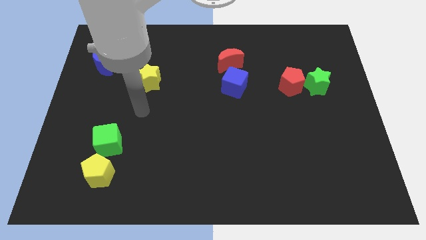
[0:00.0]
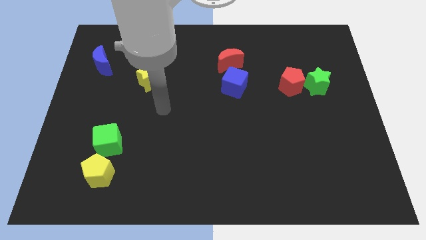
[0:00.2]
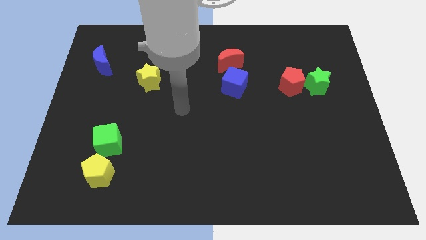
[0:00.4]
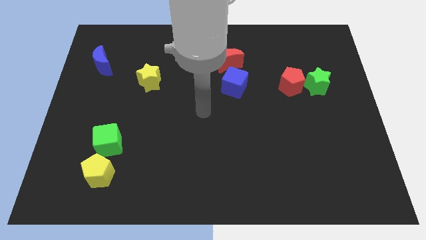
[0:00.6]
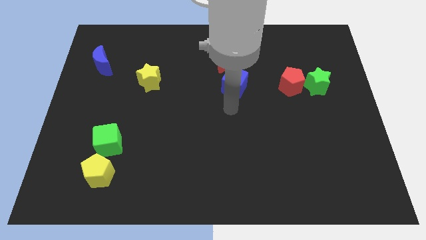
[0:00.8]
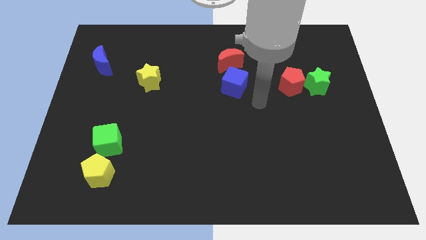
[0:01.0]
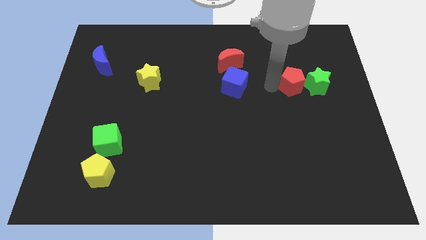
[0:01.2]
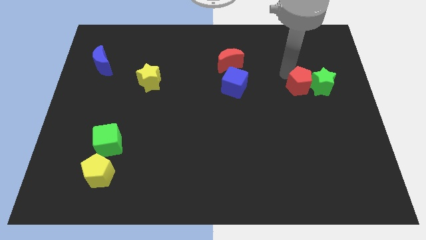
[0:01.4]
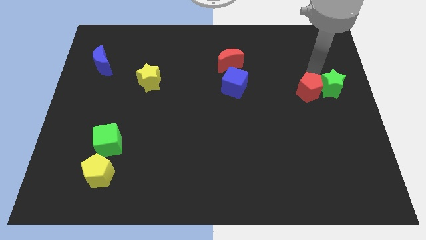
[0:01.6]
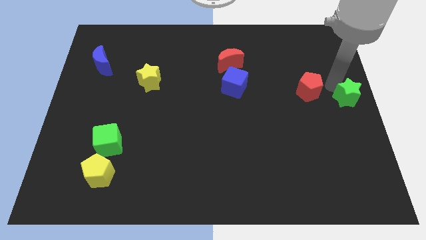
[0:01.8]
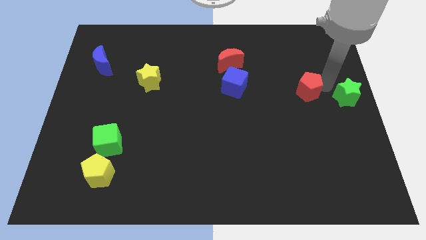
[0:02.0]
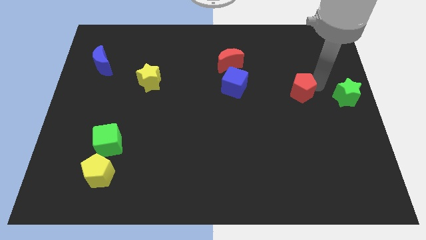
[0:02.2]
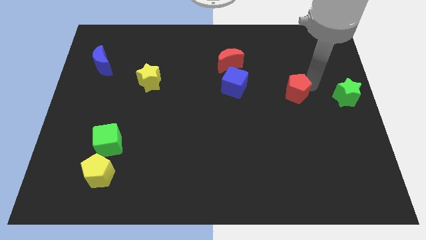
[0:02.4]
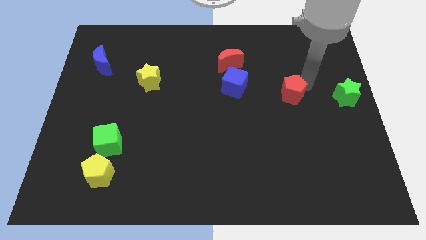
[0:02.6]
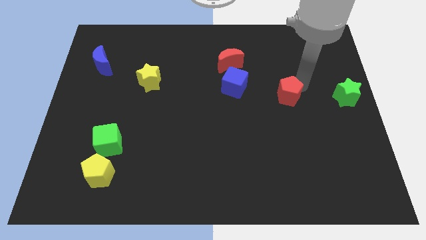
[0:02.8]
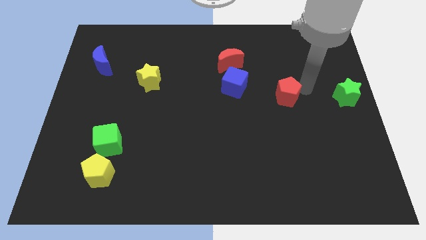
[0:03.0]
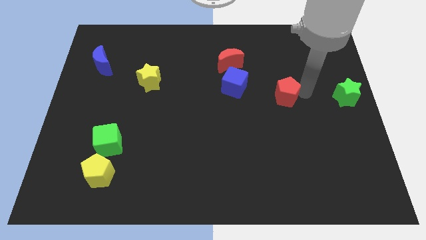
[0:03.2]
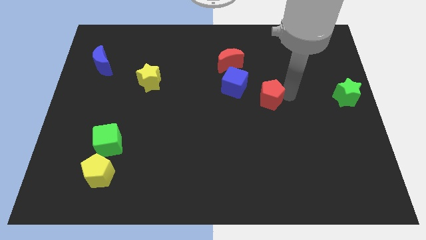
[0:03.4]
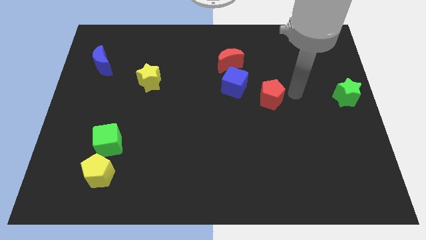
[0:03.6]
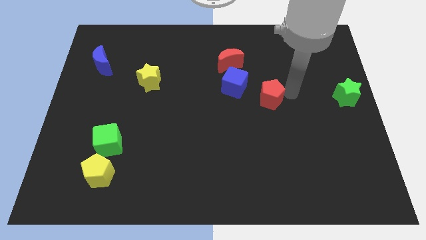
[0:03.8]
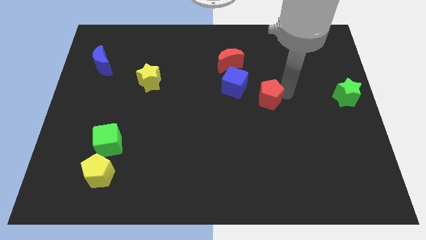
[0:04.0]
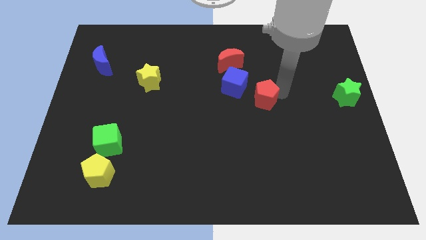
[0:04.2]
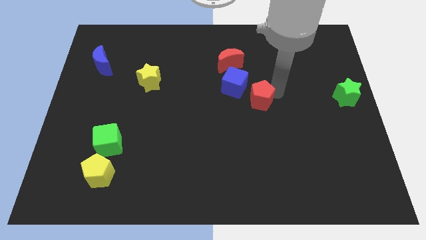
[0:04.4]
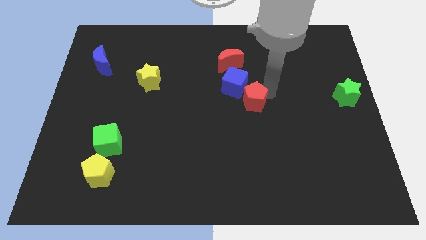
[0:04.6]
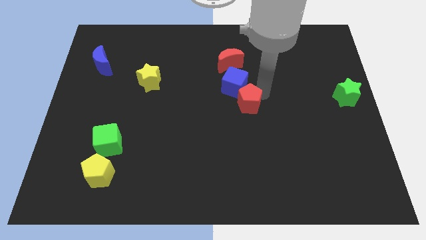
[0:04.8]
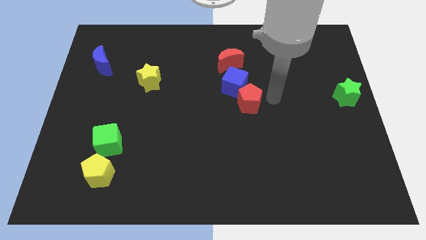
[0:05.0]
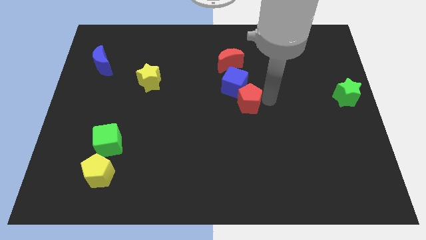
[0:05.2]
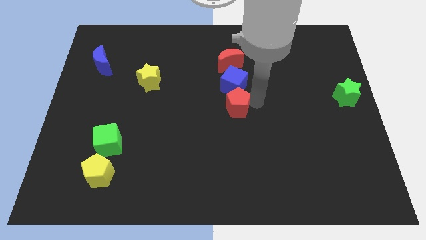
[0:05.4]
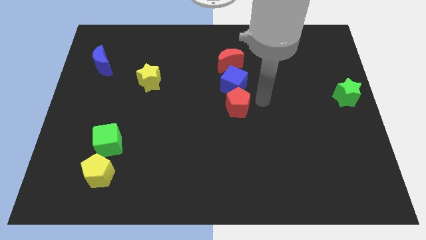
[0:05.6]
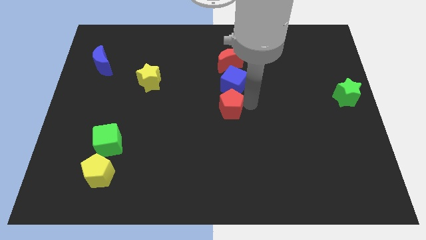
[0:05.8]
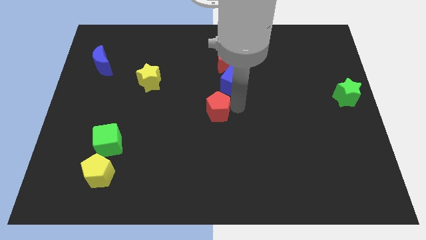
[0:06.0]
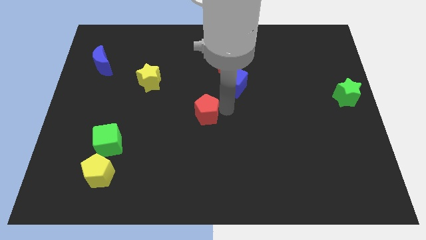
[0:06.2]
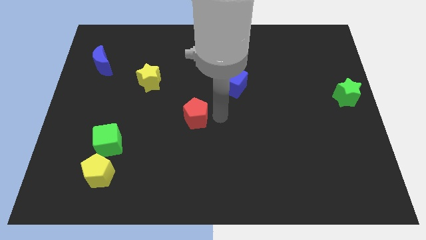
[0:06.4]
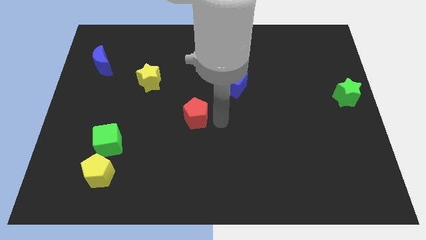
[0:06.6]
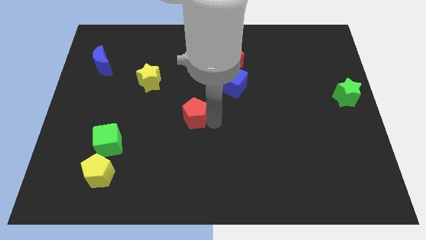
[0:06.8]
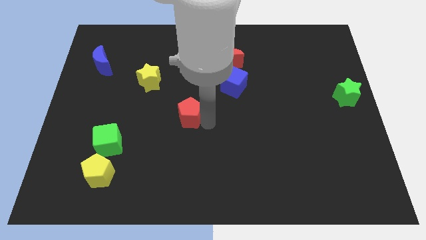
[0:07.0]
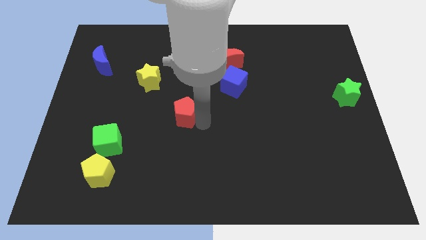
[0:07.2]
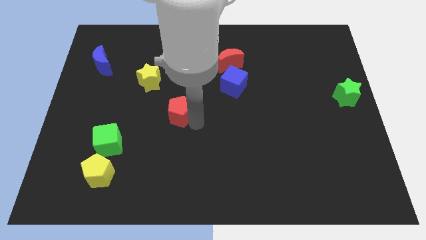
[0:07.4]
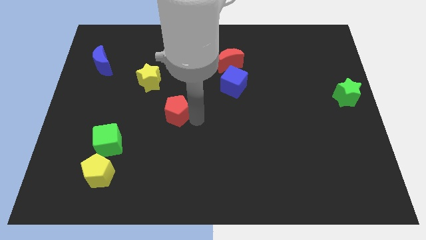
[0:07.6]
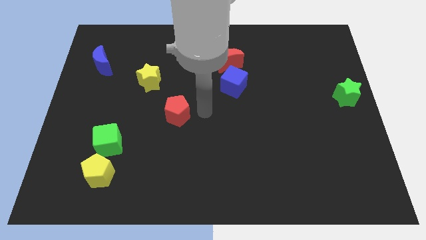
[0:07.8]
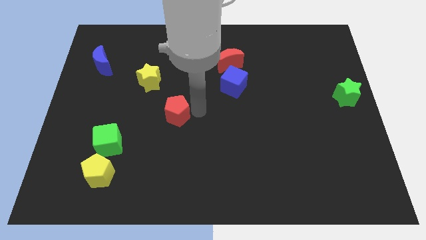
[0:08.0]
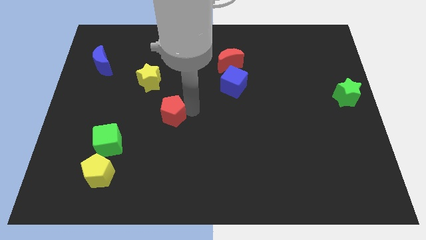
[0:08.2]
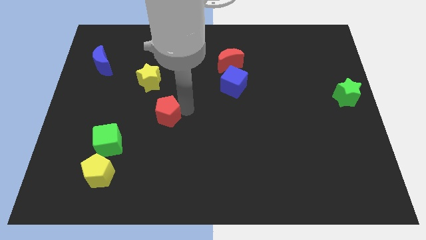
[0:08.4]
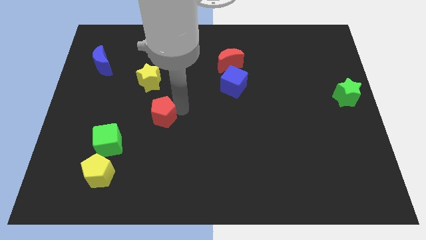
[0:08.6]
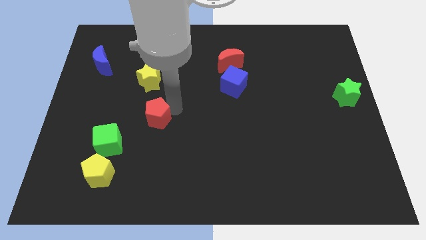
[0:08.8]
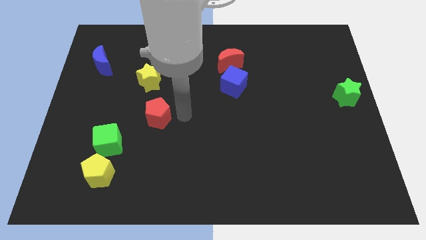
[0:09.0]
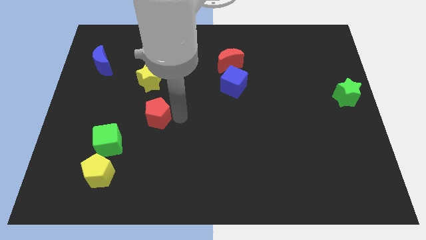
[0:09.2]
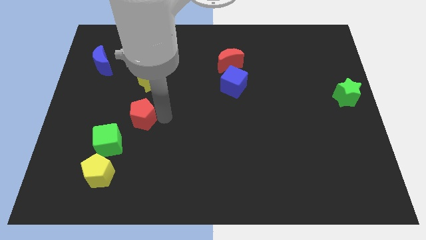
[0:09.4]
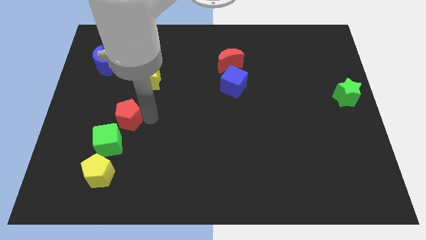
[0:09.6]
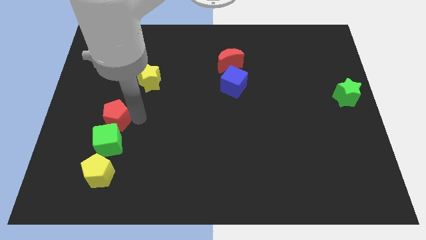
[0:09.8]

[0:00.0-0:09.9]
put the red pentagon diagonally up and to the left of the green cube

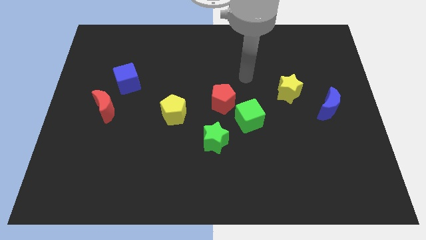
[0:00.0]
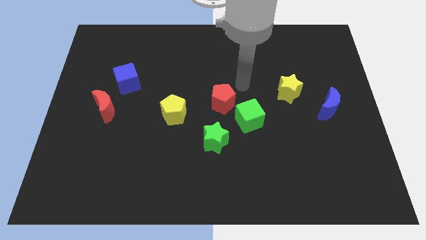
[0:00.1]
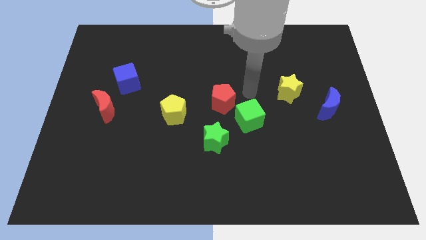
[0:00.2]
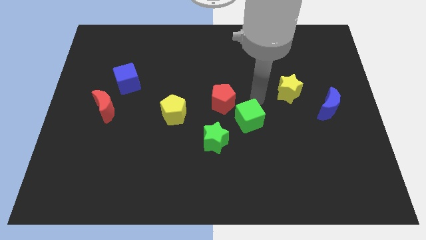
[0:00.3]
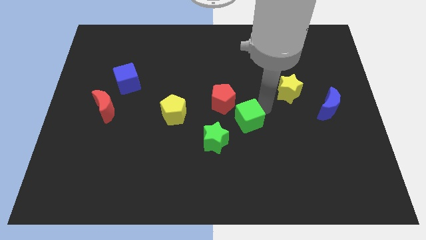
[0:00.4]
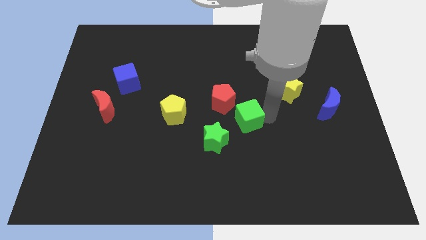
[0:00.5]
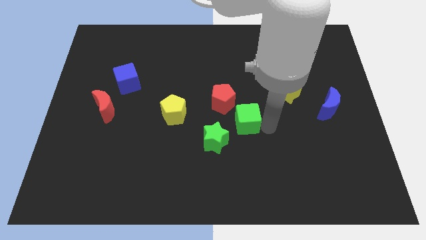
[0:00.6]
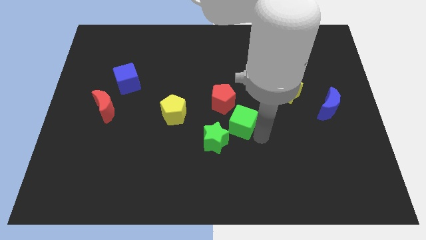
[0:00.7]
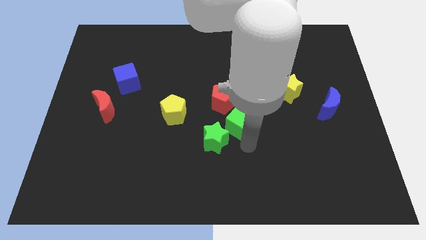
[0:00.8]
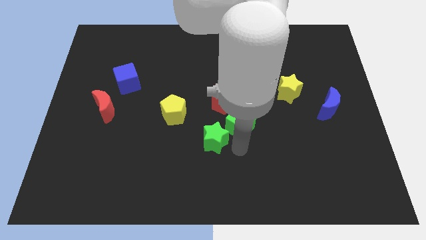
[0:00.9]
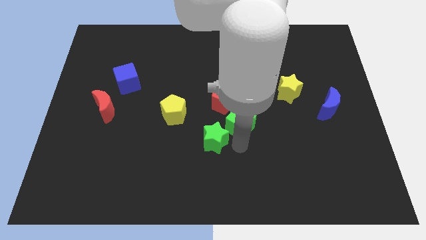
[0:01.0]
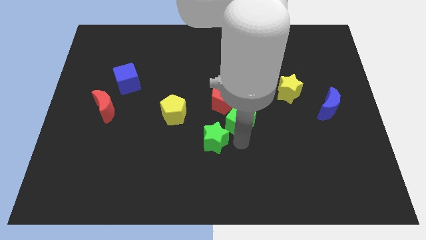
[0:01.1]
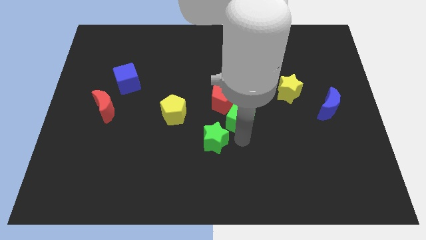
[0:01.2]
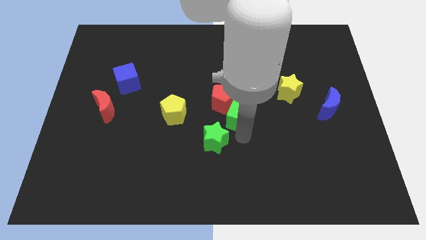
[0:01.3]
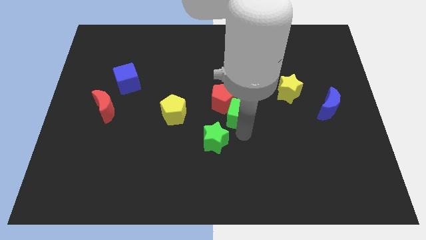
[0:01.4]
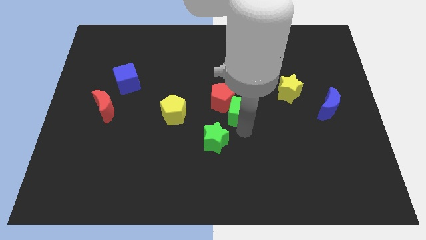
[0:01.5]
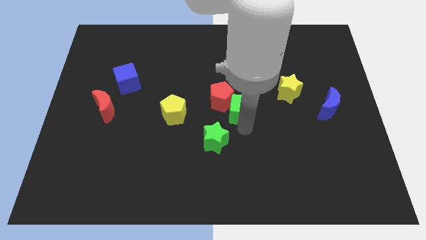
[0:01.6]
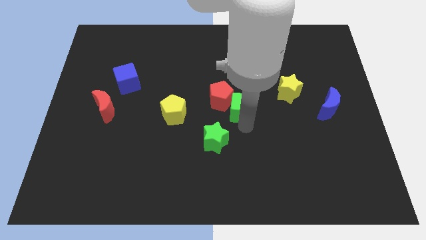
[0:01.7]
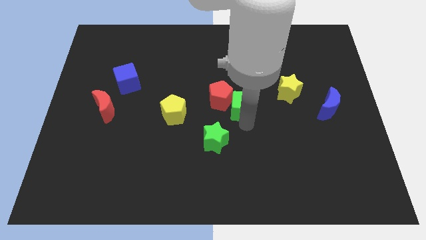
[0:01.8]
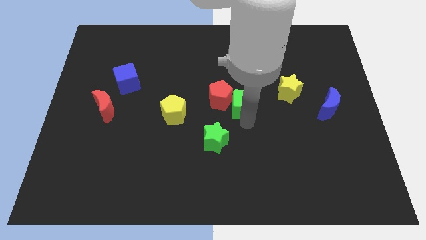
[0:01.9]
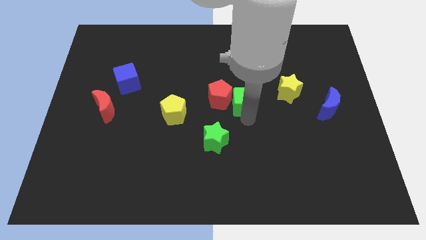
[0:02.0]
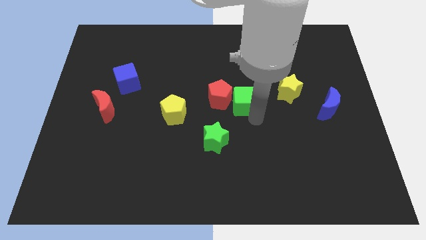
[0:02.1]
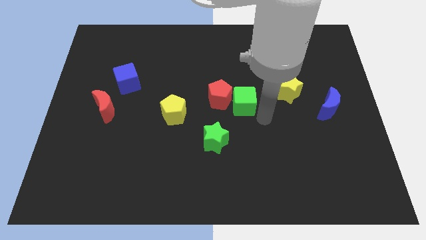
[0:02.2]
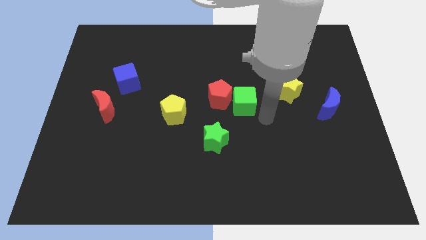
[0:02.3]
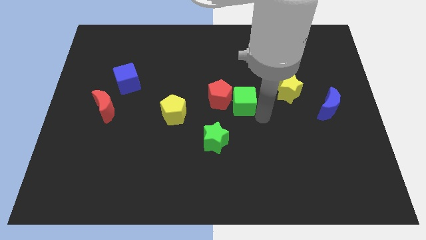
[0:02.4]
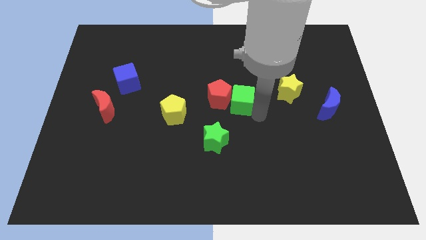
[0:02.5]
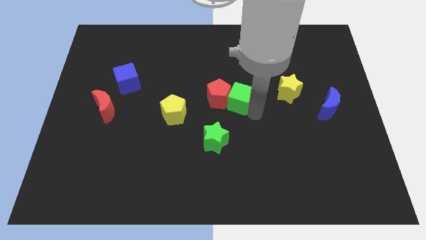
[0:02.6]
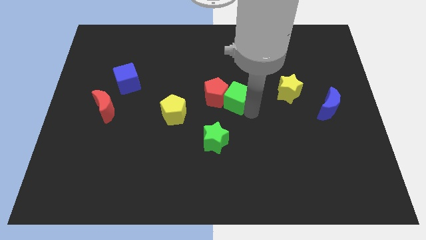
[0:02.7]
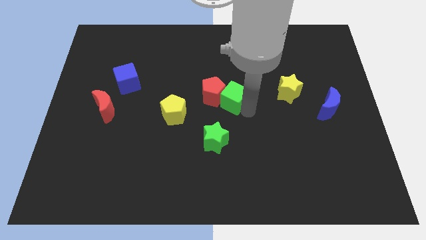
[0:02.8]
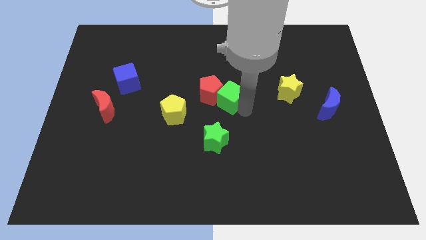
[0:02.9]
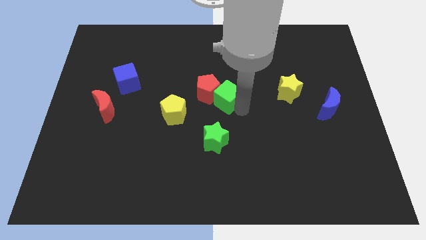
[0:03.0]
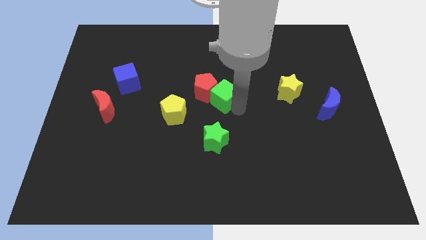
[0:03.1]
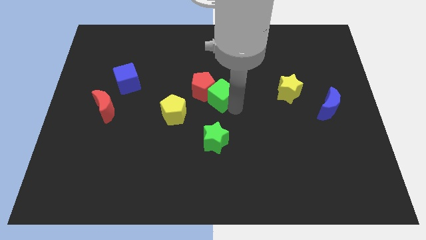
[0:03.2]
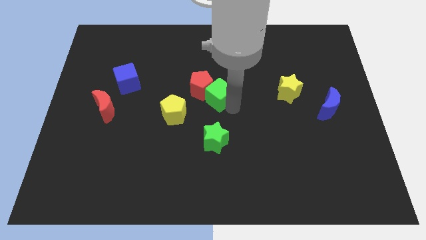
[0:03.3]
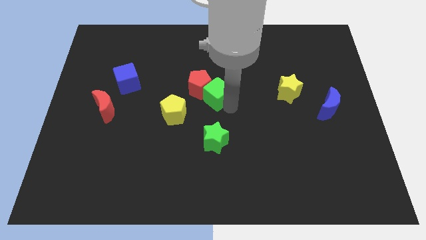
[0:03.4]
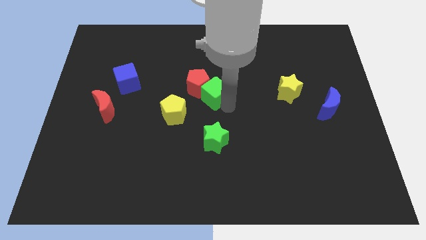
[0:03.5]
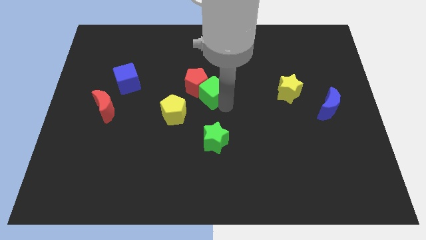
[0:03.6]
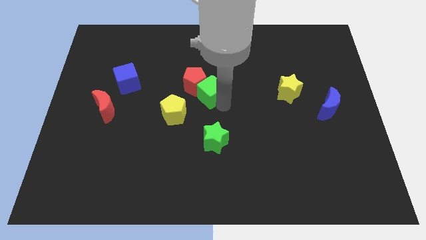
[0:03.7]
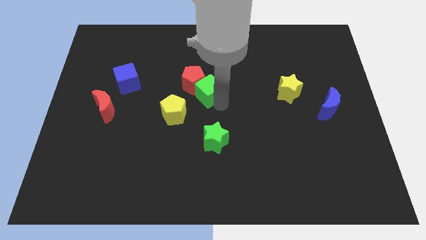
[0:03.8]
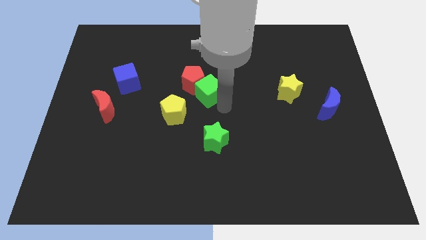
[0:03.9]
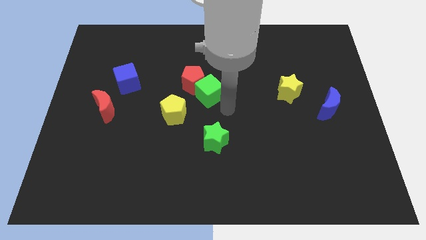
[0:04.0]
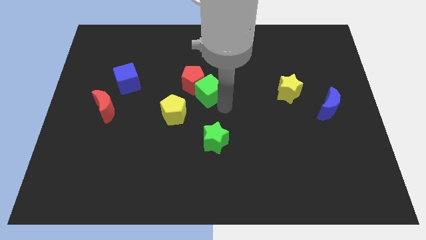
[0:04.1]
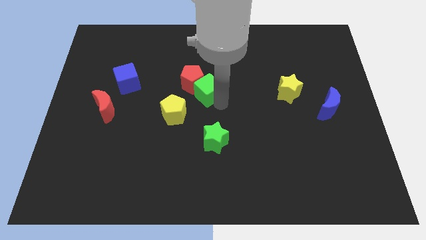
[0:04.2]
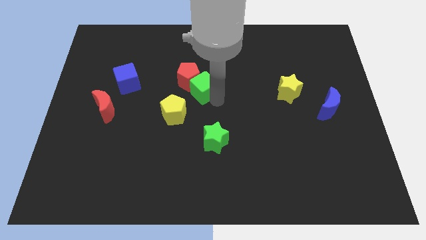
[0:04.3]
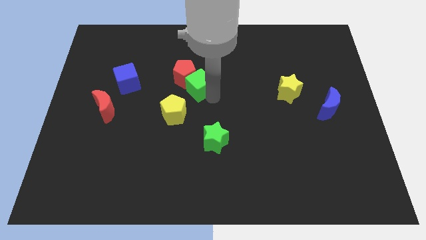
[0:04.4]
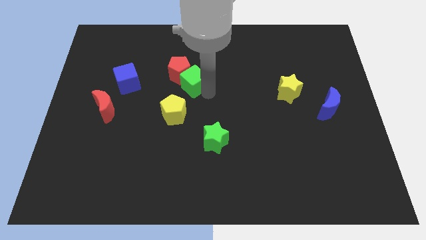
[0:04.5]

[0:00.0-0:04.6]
push the green cube to the top of the yellow pentagon
